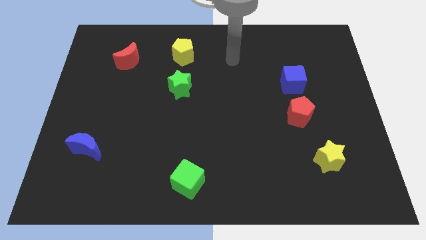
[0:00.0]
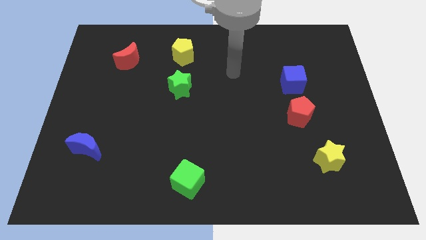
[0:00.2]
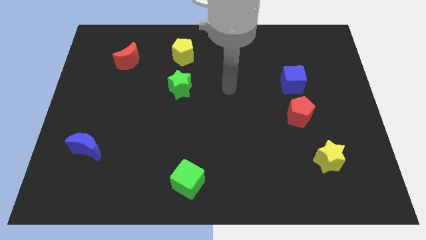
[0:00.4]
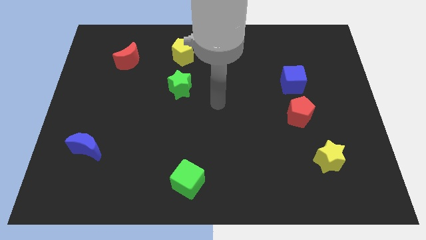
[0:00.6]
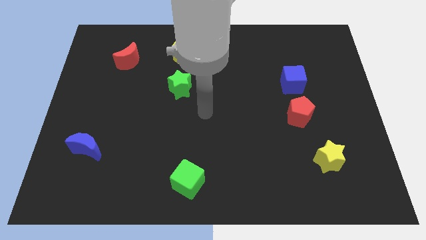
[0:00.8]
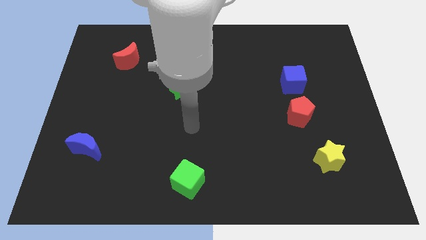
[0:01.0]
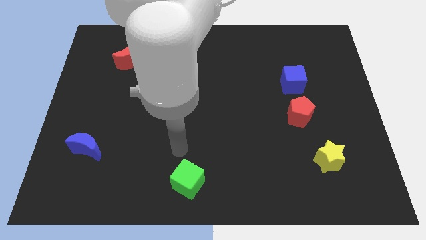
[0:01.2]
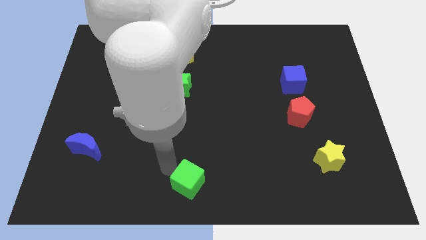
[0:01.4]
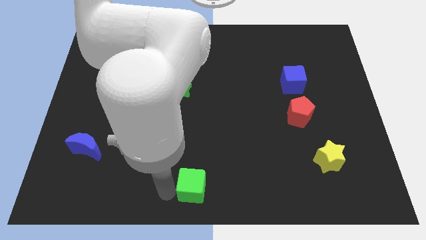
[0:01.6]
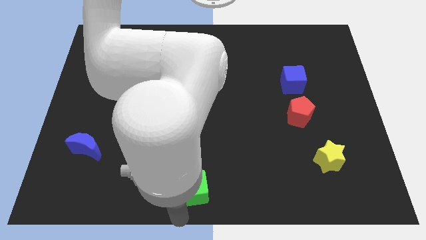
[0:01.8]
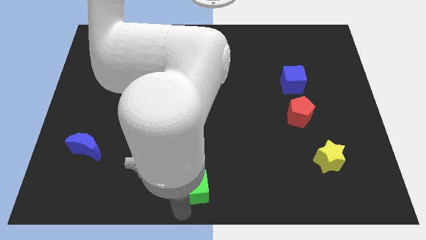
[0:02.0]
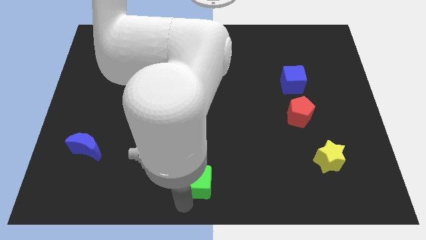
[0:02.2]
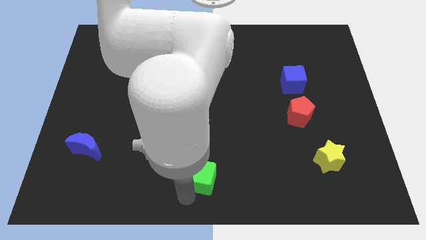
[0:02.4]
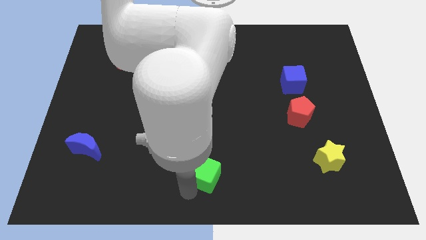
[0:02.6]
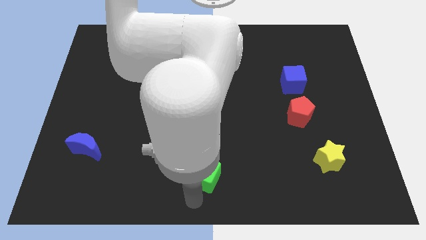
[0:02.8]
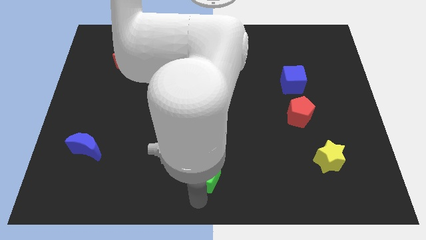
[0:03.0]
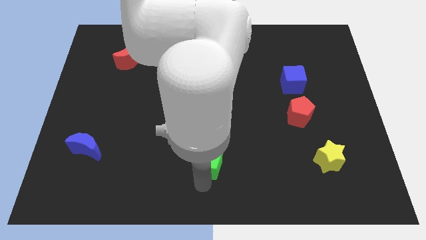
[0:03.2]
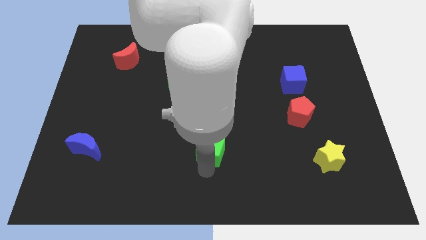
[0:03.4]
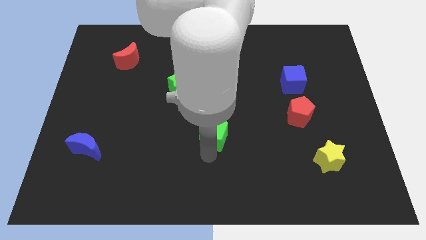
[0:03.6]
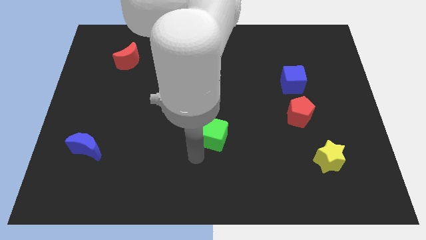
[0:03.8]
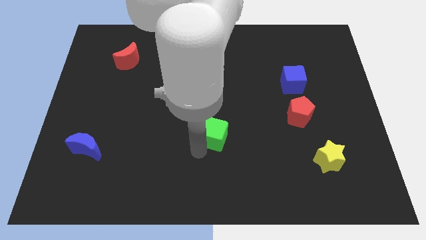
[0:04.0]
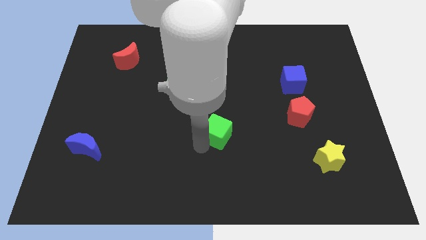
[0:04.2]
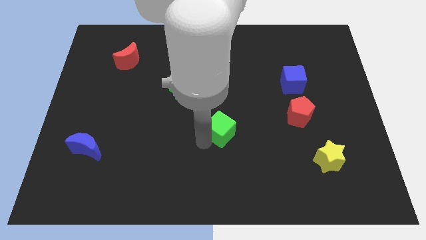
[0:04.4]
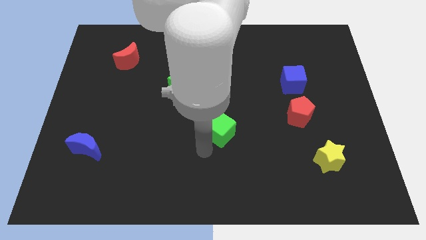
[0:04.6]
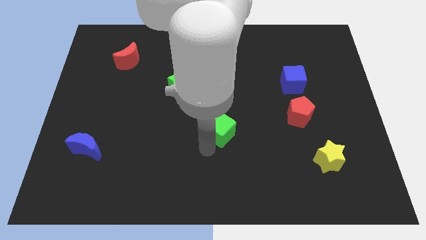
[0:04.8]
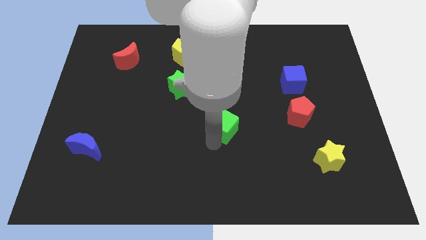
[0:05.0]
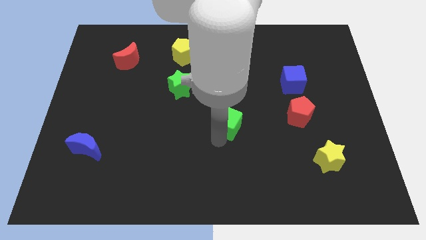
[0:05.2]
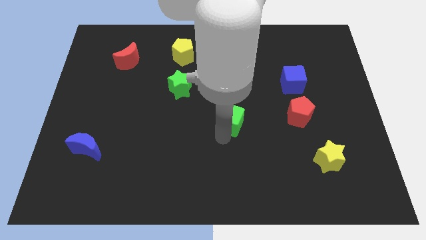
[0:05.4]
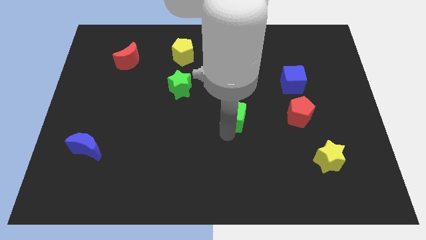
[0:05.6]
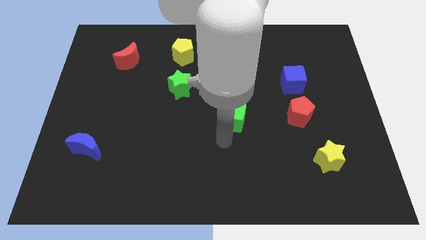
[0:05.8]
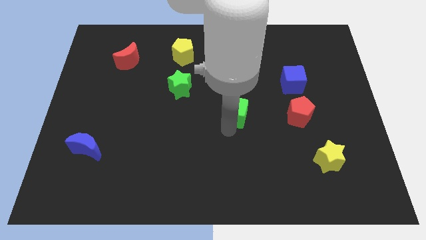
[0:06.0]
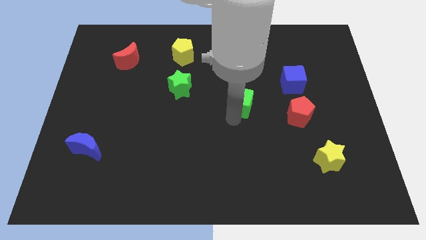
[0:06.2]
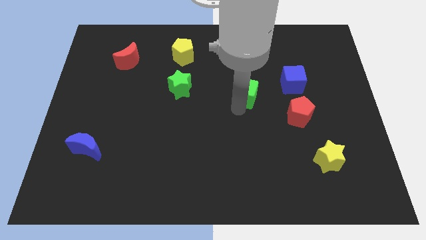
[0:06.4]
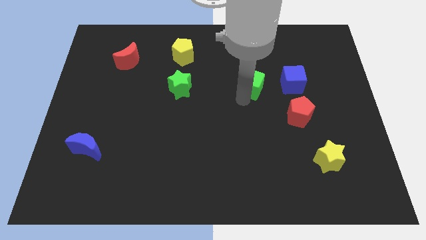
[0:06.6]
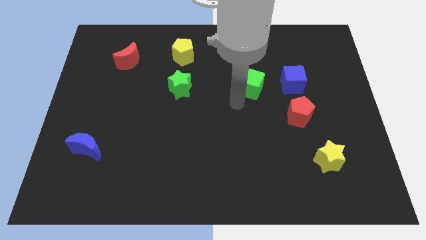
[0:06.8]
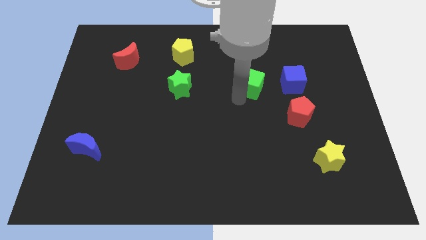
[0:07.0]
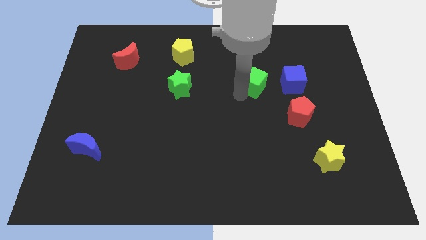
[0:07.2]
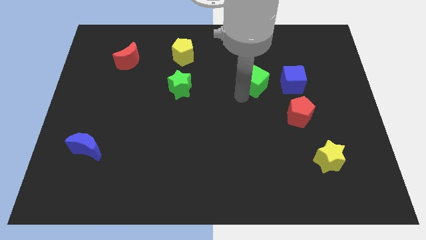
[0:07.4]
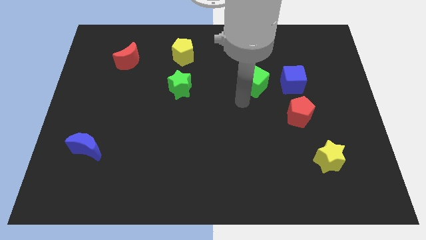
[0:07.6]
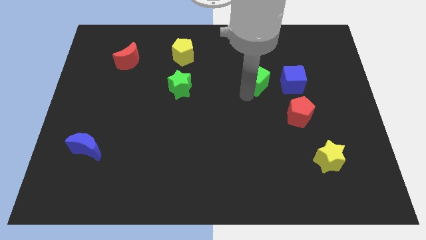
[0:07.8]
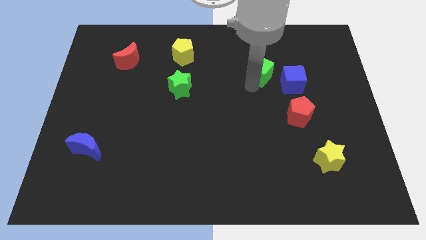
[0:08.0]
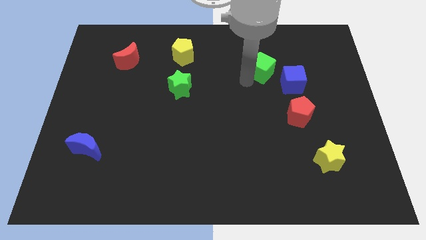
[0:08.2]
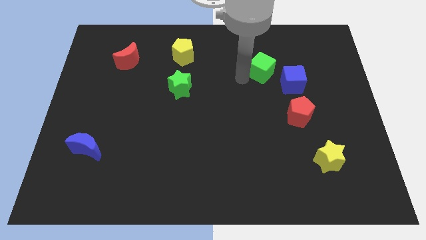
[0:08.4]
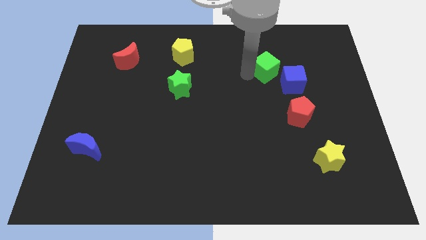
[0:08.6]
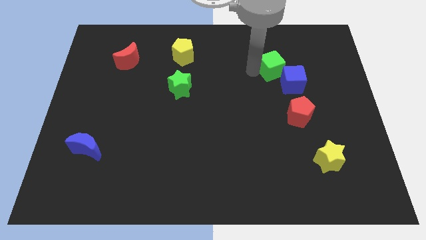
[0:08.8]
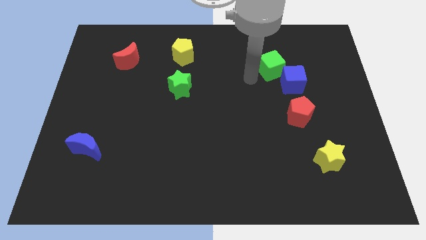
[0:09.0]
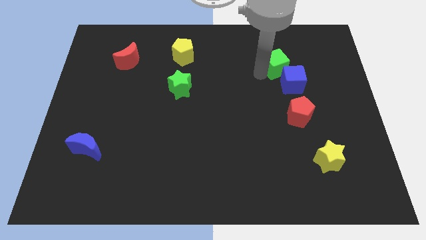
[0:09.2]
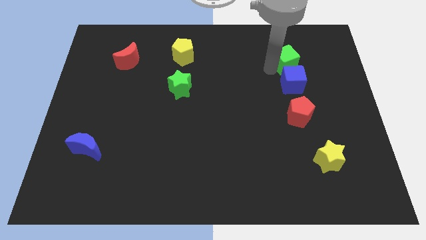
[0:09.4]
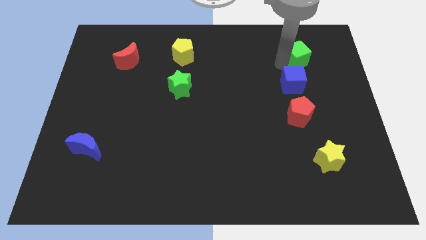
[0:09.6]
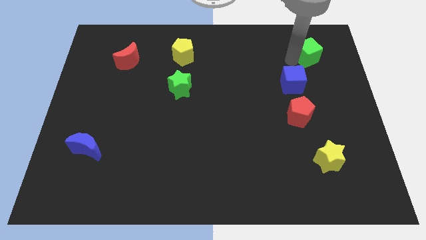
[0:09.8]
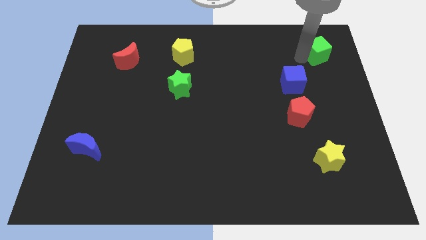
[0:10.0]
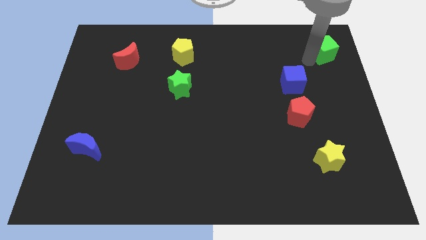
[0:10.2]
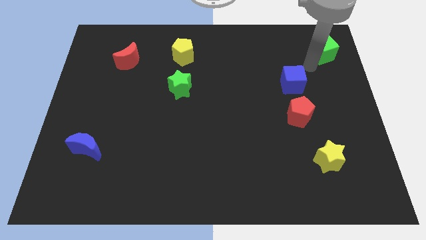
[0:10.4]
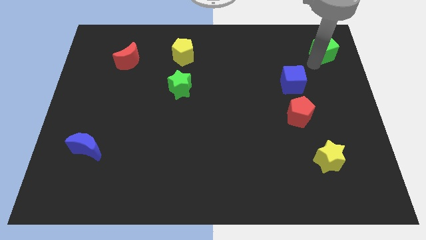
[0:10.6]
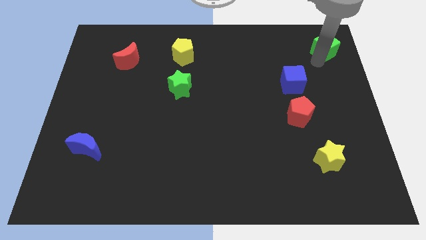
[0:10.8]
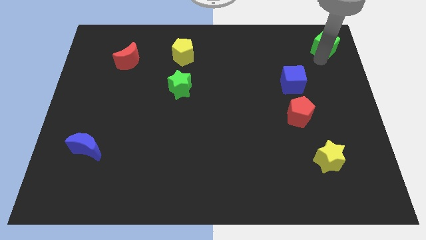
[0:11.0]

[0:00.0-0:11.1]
push the green cube to the top right
